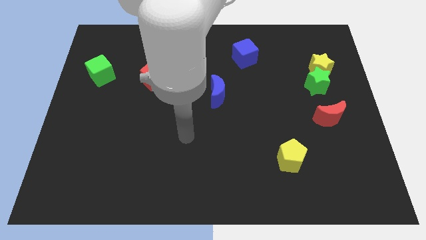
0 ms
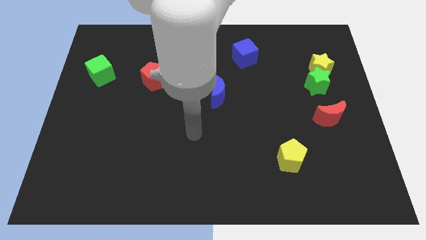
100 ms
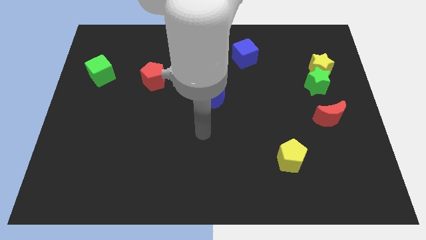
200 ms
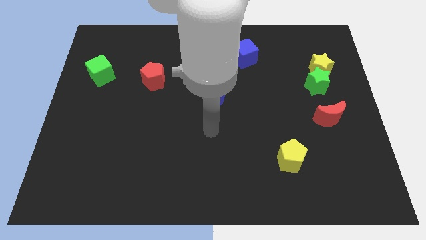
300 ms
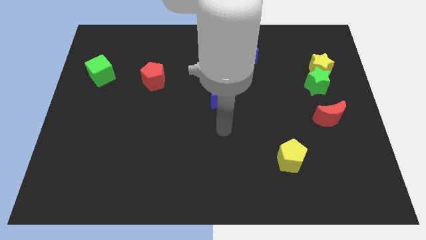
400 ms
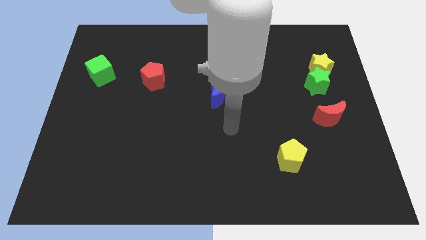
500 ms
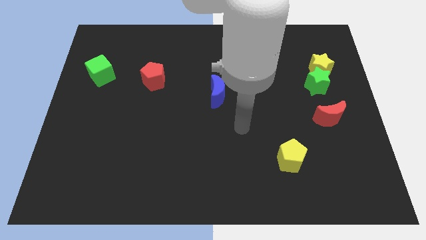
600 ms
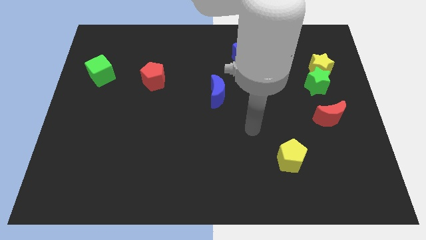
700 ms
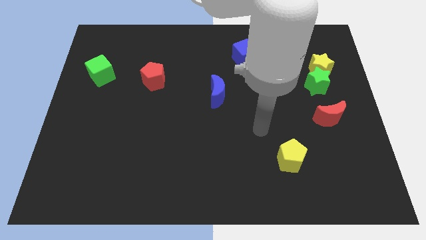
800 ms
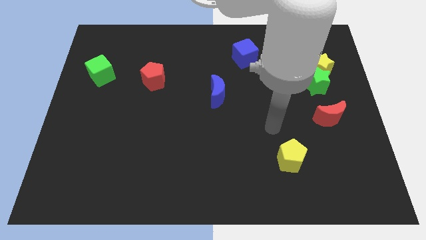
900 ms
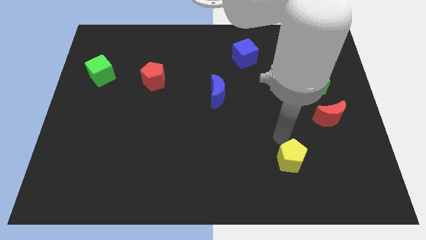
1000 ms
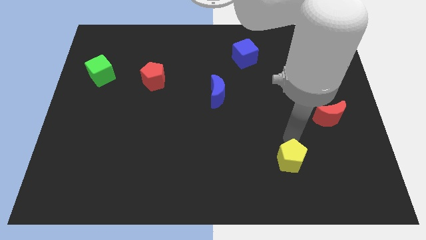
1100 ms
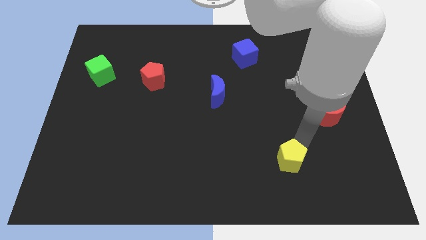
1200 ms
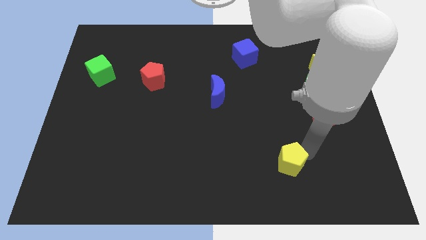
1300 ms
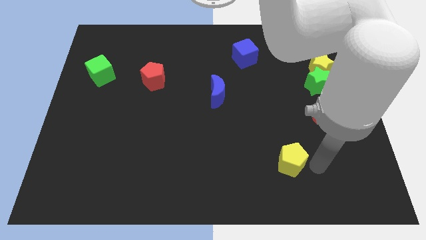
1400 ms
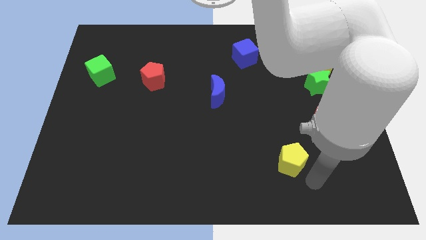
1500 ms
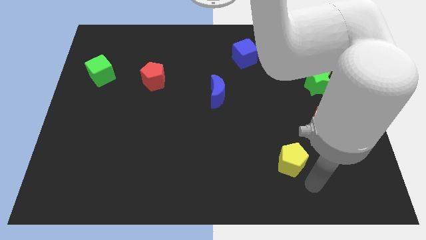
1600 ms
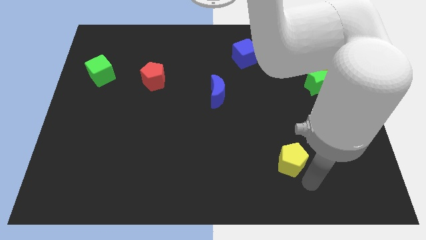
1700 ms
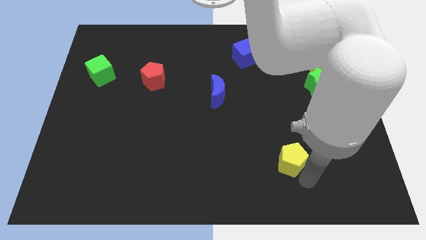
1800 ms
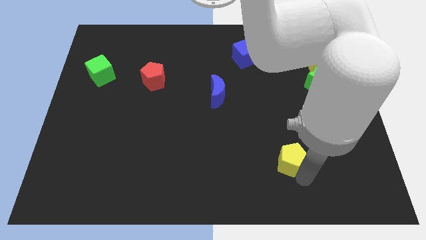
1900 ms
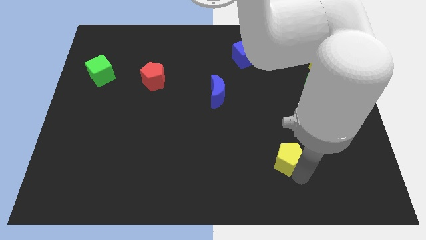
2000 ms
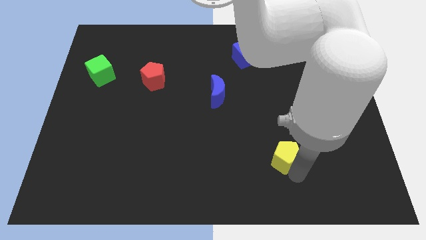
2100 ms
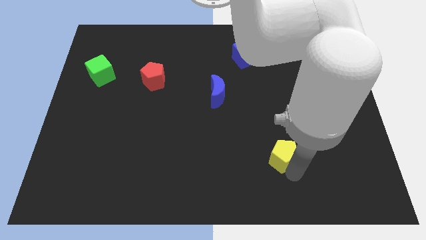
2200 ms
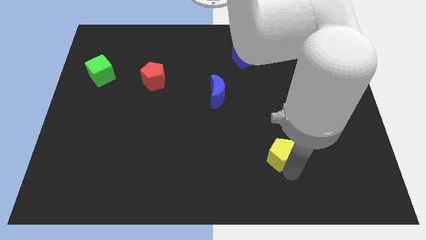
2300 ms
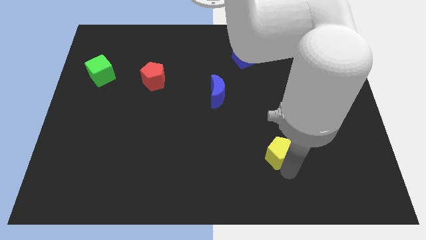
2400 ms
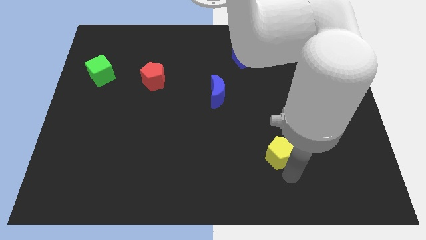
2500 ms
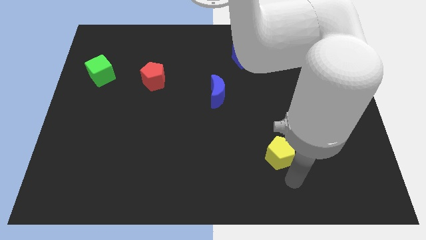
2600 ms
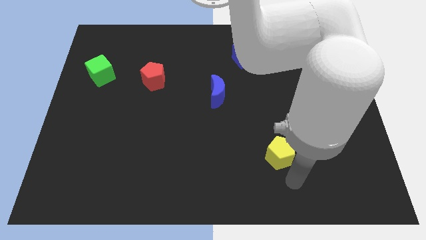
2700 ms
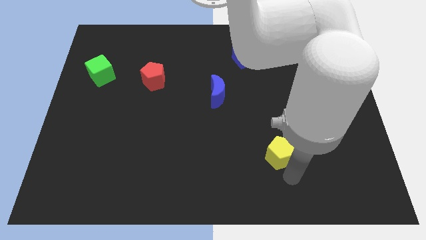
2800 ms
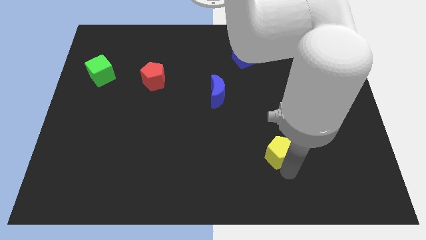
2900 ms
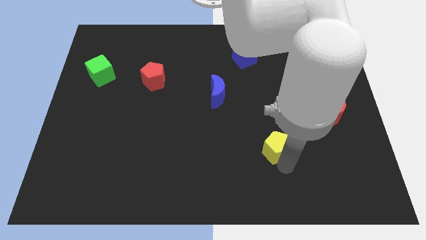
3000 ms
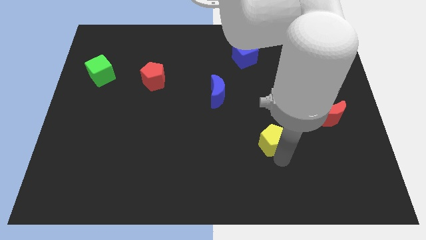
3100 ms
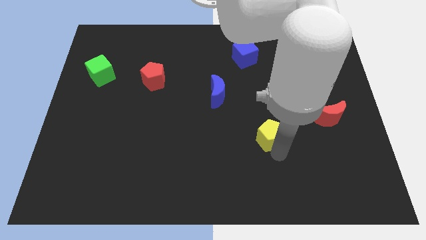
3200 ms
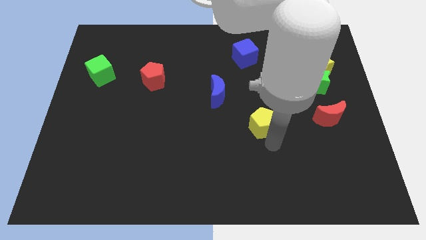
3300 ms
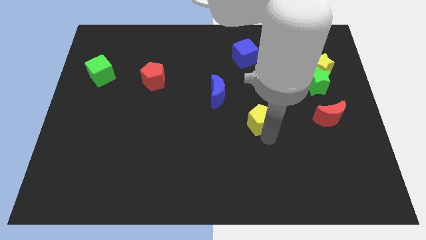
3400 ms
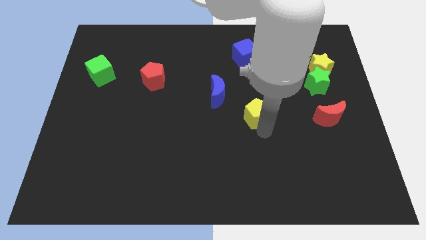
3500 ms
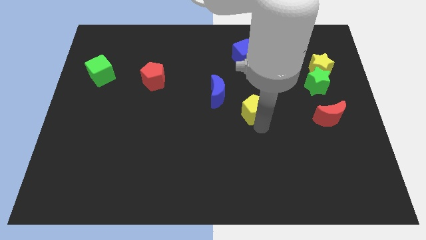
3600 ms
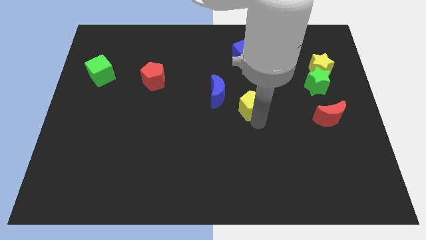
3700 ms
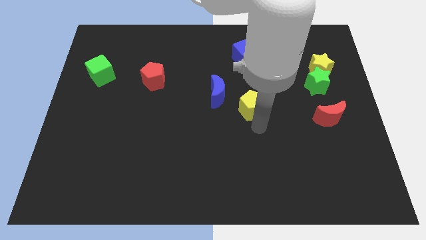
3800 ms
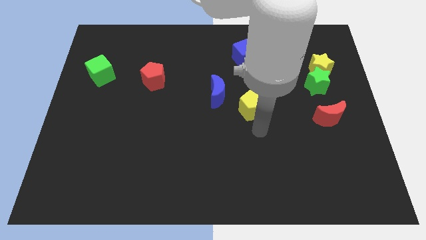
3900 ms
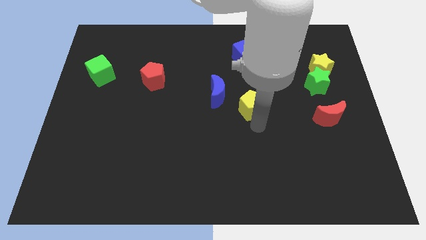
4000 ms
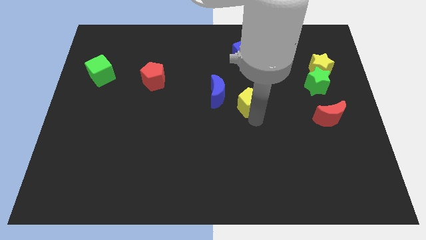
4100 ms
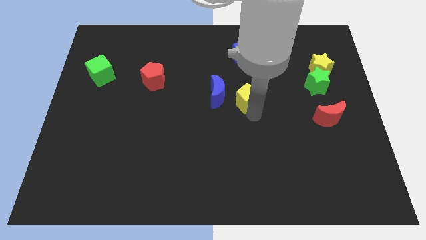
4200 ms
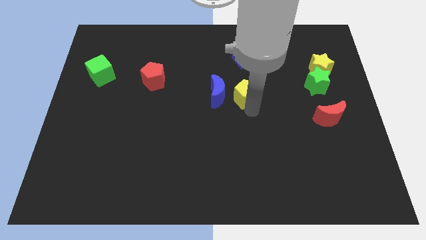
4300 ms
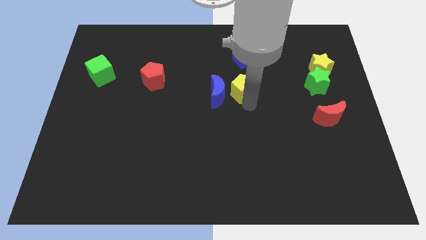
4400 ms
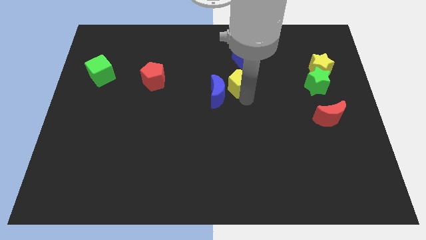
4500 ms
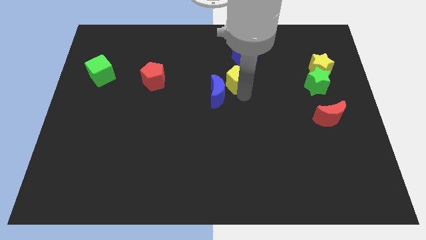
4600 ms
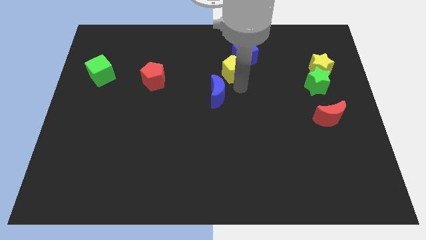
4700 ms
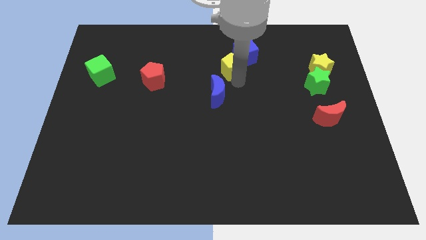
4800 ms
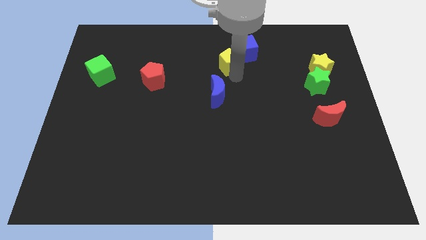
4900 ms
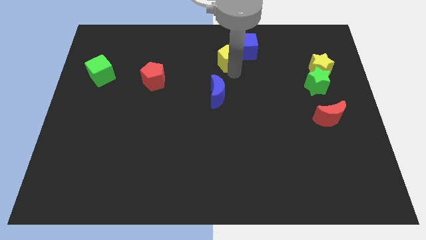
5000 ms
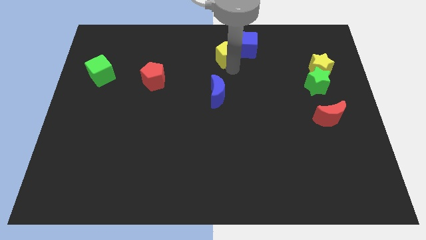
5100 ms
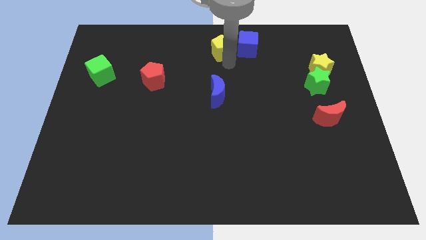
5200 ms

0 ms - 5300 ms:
slide the yellow pentagon to the top side

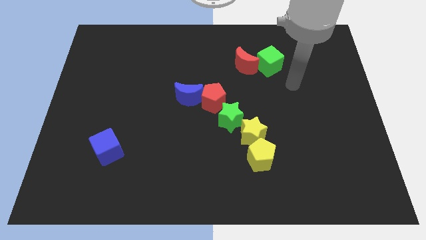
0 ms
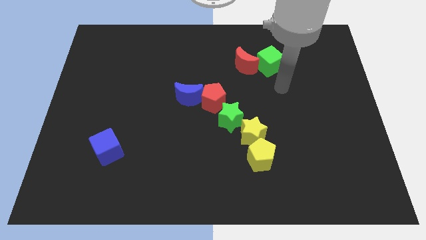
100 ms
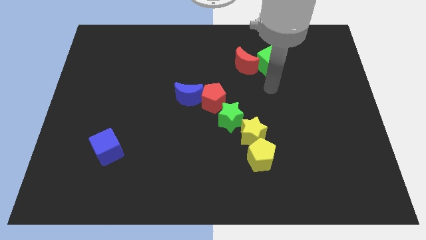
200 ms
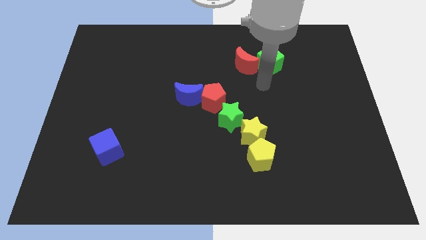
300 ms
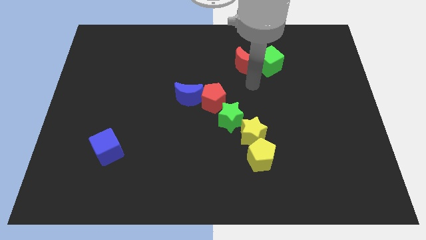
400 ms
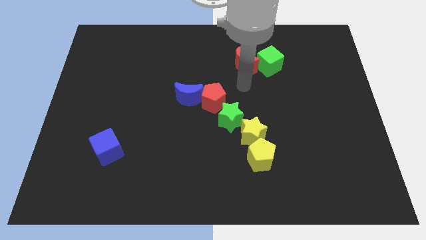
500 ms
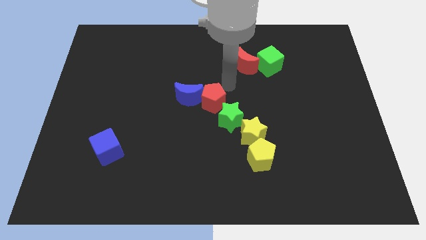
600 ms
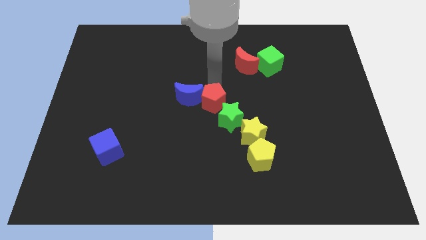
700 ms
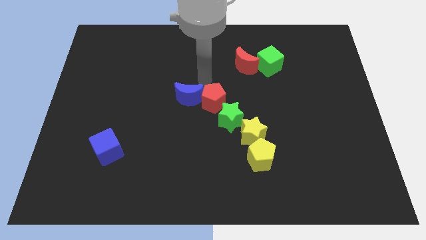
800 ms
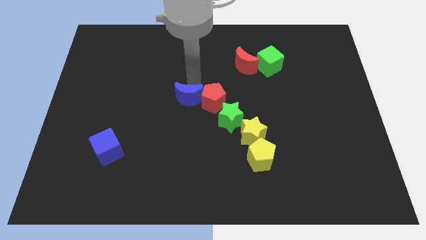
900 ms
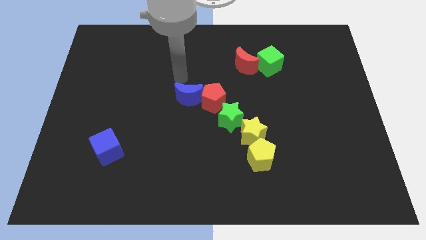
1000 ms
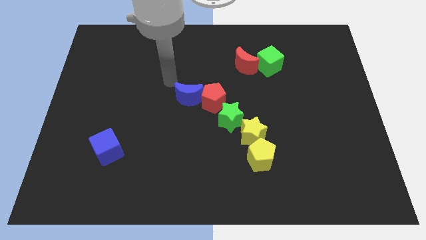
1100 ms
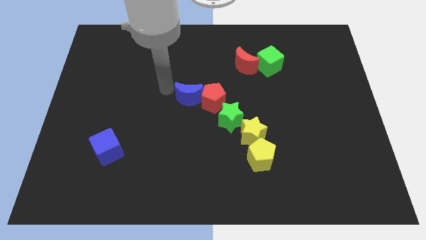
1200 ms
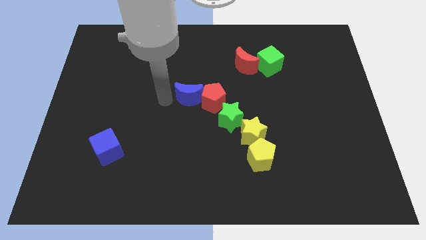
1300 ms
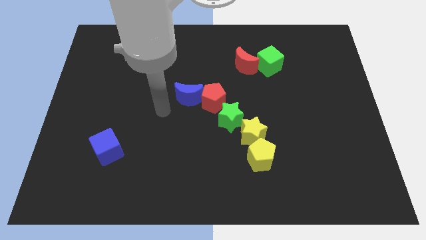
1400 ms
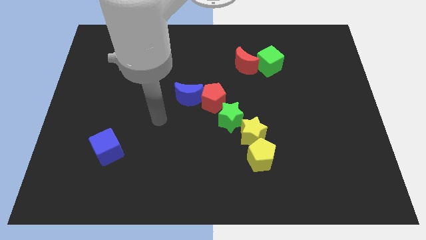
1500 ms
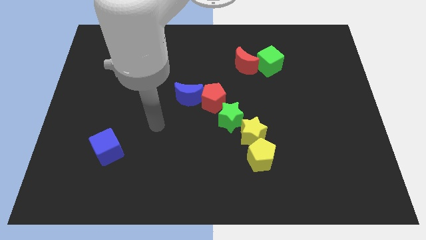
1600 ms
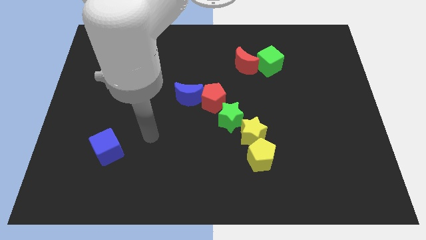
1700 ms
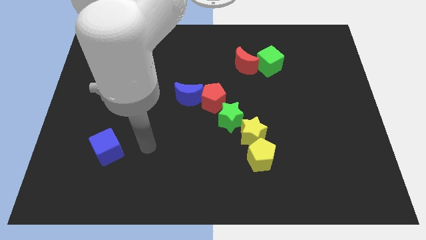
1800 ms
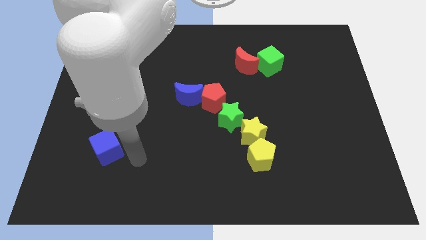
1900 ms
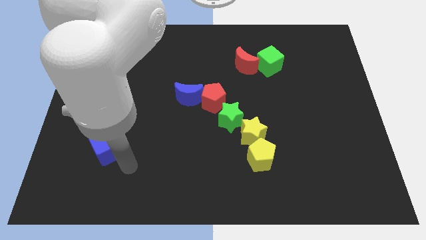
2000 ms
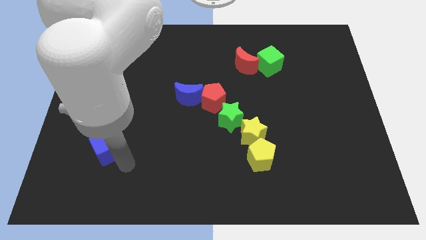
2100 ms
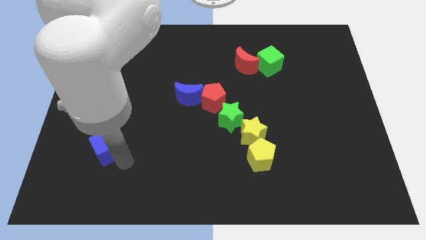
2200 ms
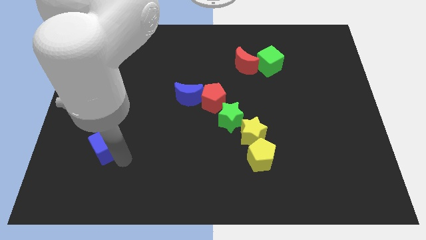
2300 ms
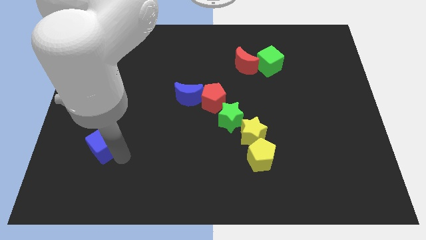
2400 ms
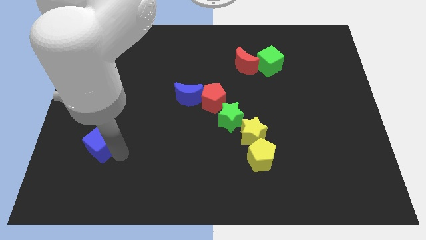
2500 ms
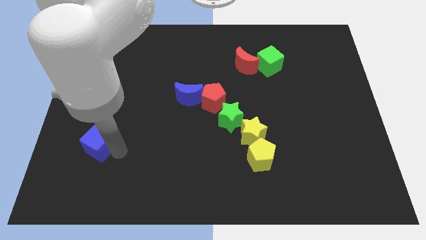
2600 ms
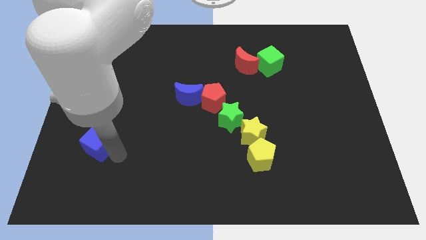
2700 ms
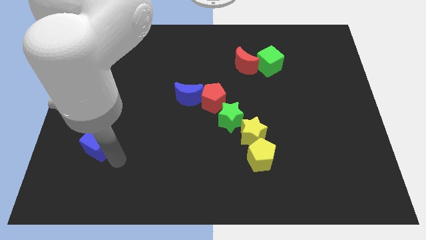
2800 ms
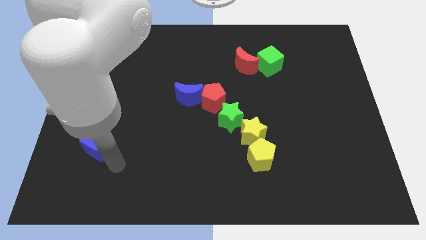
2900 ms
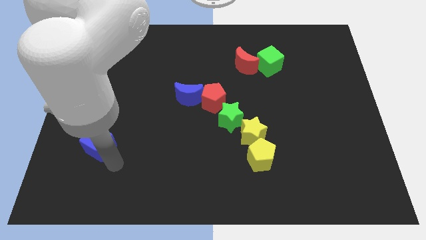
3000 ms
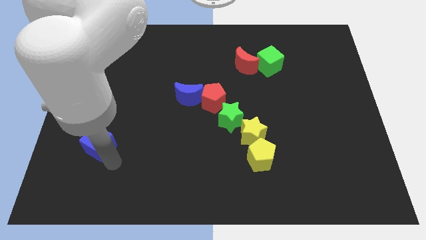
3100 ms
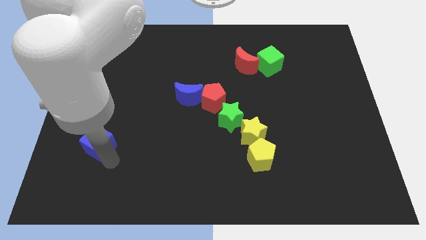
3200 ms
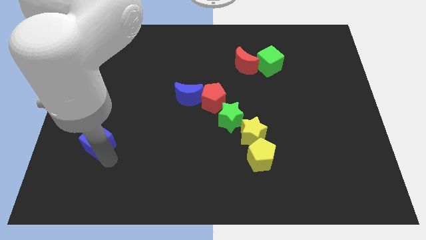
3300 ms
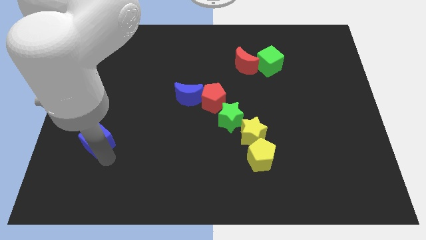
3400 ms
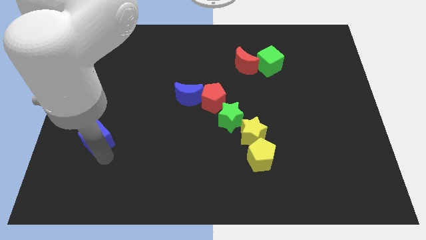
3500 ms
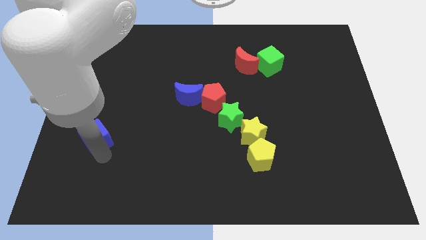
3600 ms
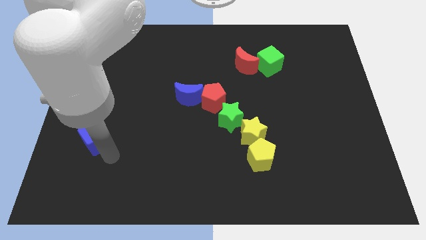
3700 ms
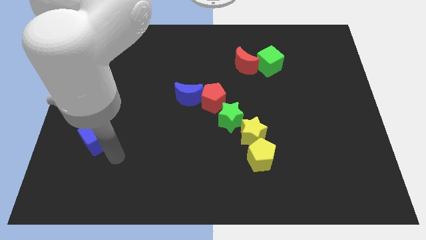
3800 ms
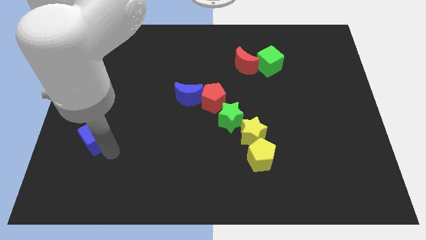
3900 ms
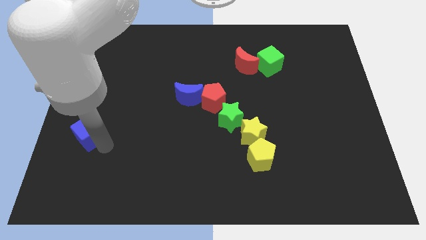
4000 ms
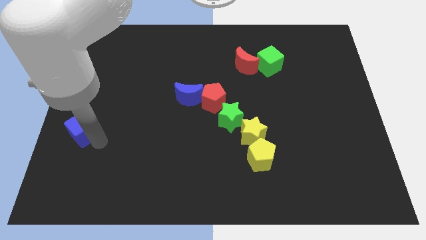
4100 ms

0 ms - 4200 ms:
slide the blue cube to the left side
